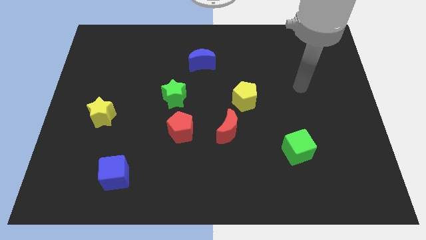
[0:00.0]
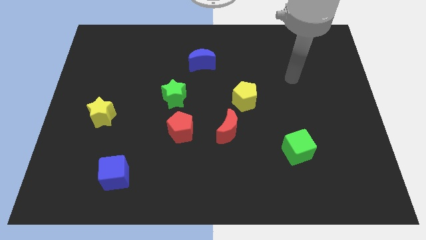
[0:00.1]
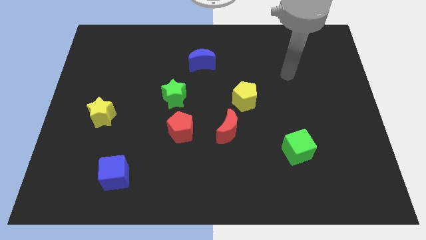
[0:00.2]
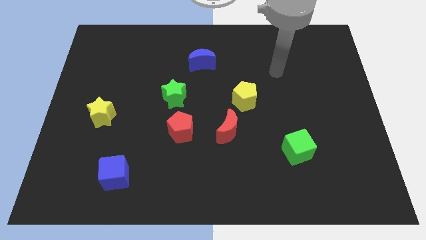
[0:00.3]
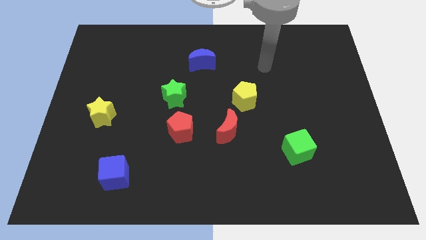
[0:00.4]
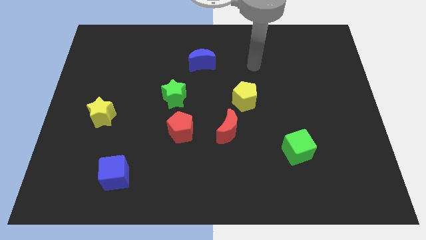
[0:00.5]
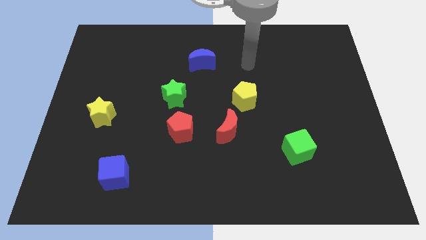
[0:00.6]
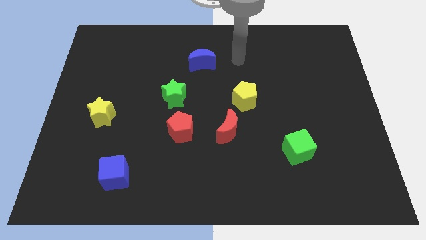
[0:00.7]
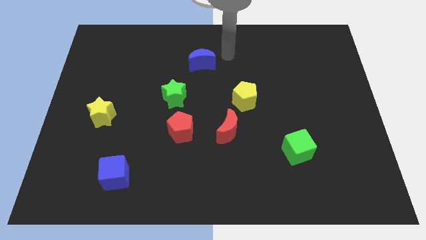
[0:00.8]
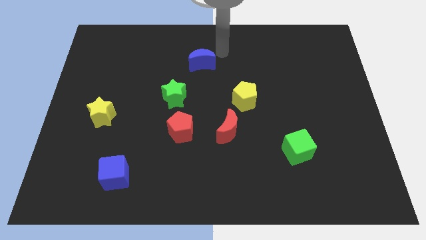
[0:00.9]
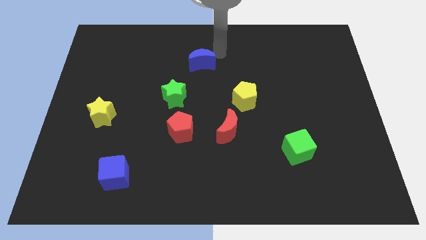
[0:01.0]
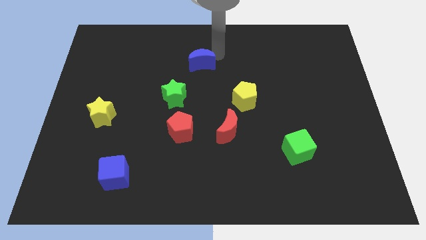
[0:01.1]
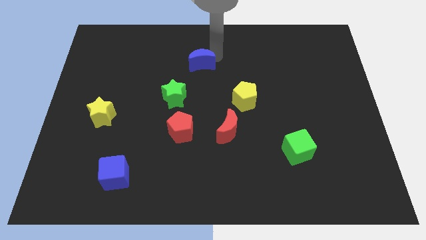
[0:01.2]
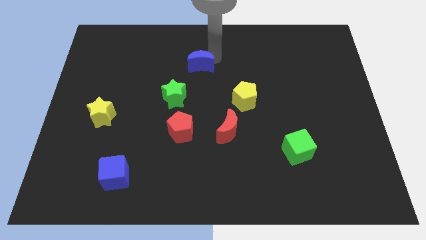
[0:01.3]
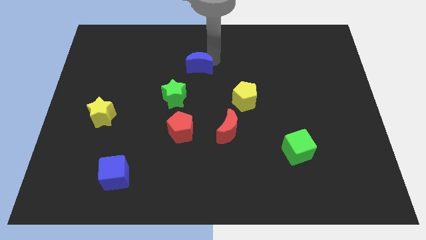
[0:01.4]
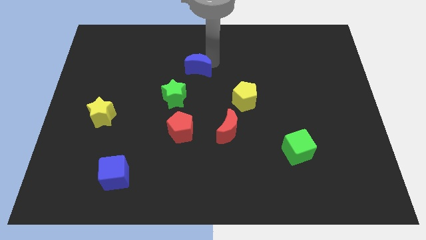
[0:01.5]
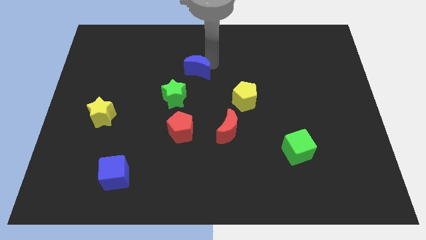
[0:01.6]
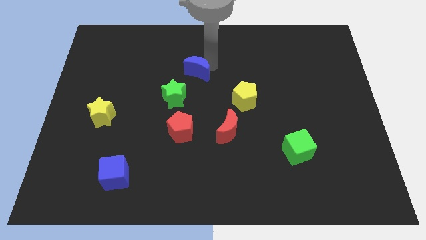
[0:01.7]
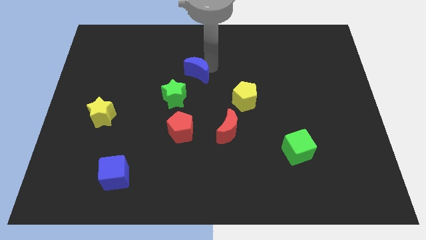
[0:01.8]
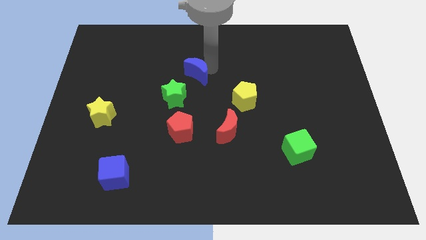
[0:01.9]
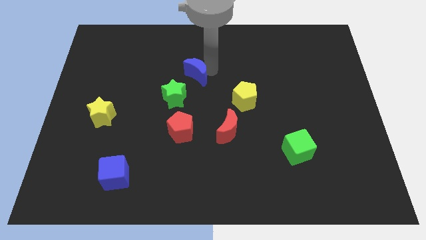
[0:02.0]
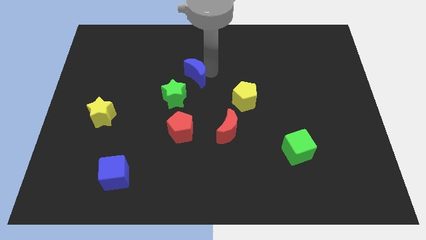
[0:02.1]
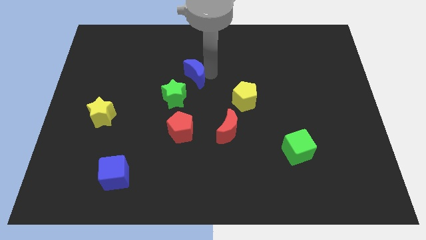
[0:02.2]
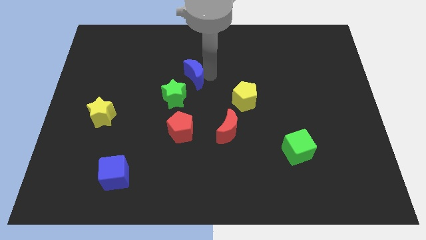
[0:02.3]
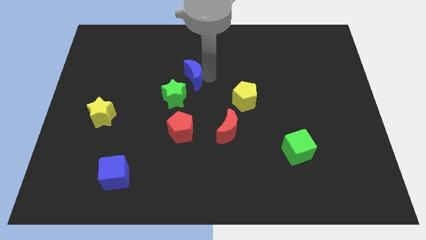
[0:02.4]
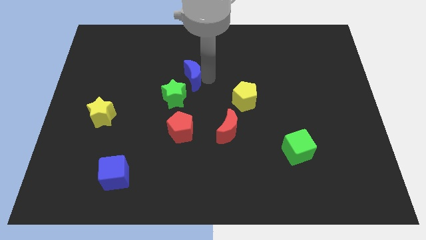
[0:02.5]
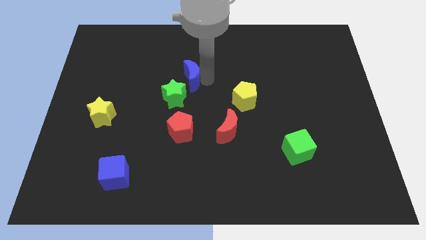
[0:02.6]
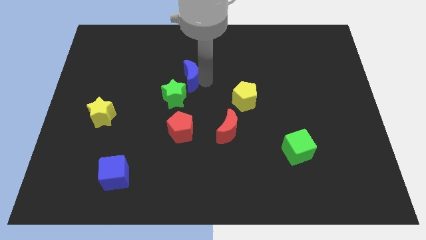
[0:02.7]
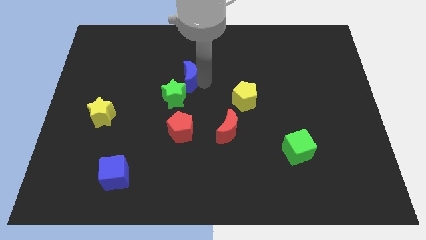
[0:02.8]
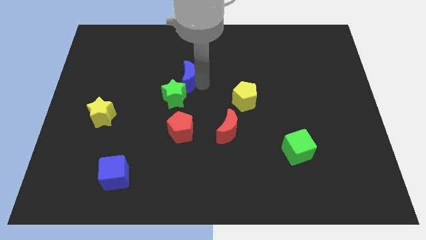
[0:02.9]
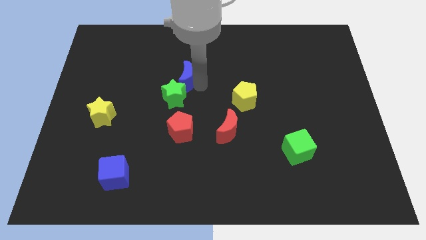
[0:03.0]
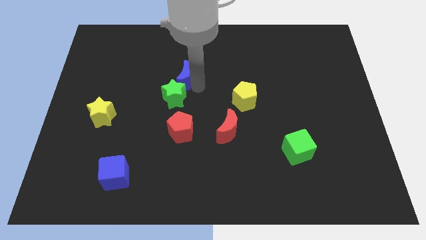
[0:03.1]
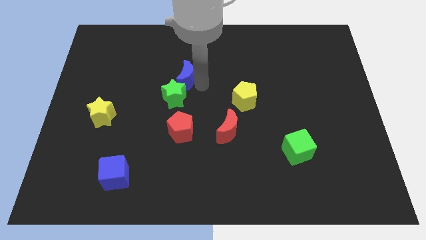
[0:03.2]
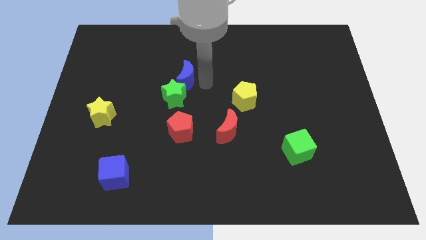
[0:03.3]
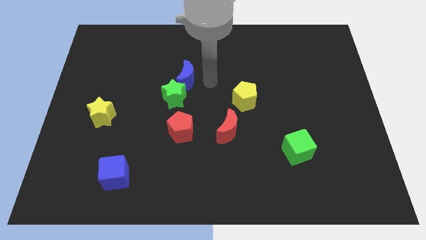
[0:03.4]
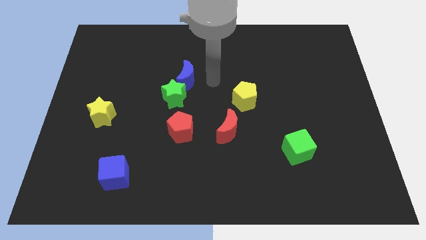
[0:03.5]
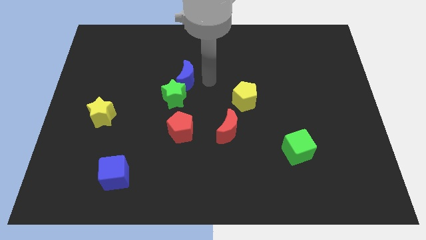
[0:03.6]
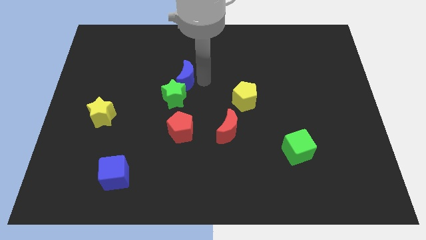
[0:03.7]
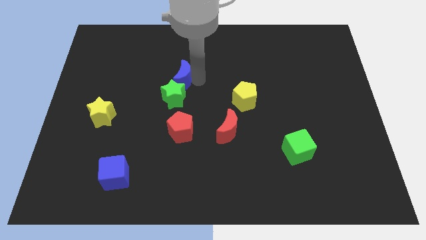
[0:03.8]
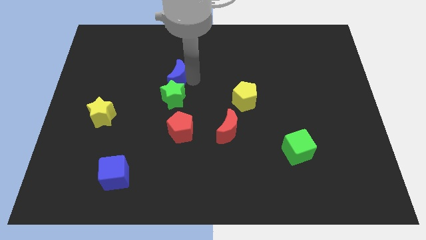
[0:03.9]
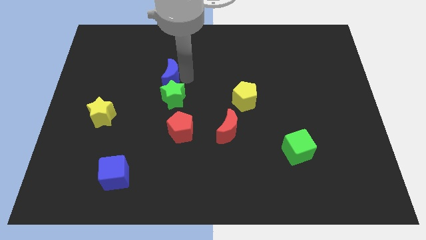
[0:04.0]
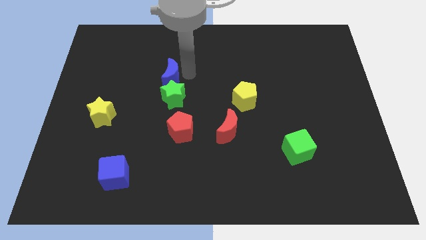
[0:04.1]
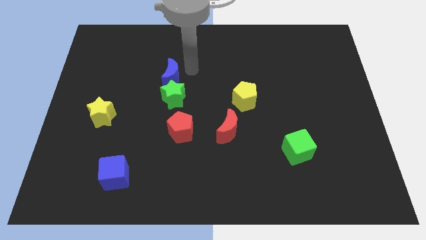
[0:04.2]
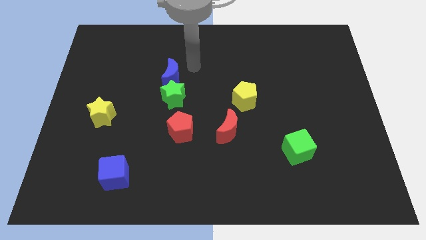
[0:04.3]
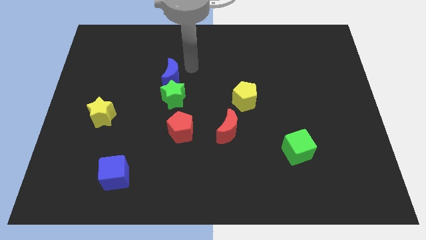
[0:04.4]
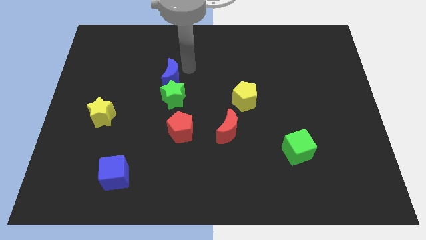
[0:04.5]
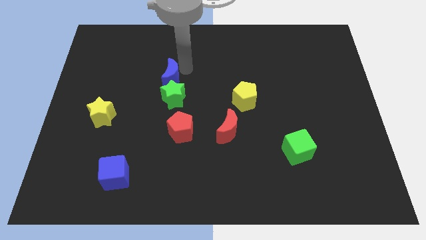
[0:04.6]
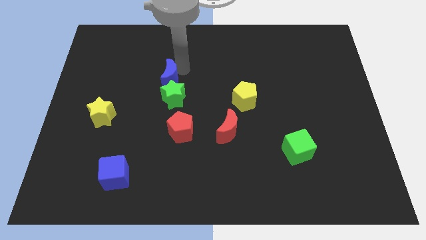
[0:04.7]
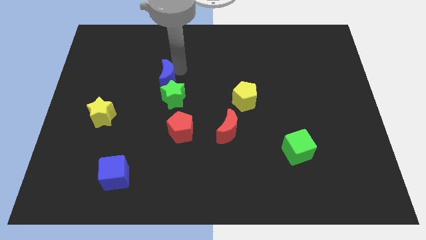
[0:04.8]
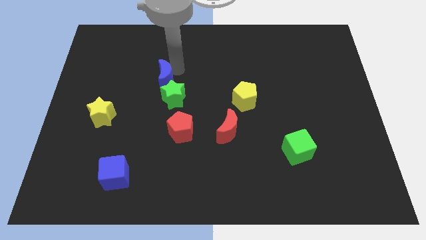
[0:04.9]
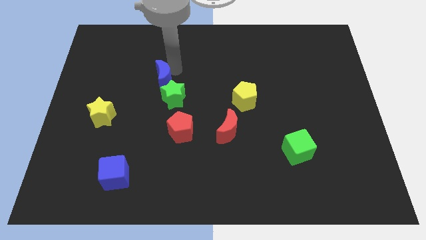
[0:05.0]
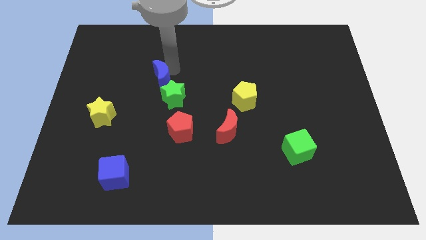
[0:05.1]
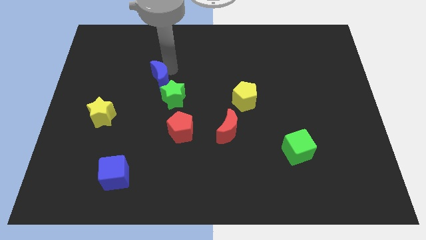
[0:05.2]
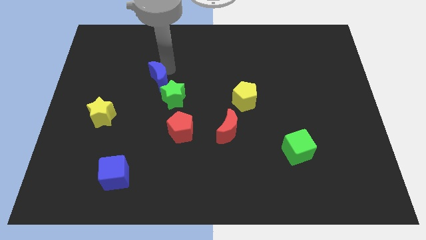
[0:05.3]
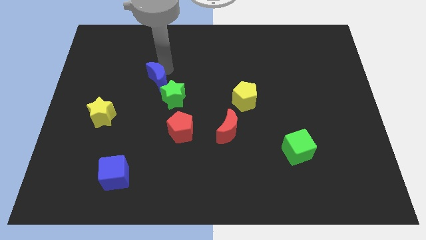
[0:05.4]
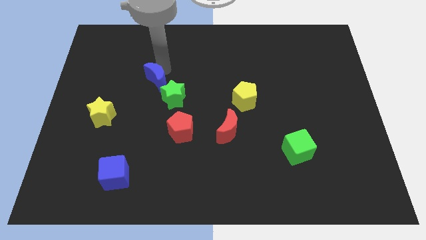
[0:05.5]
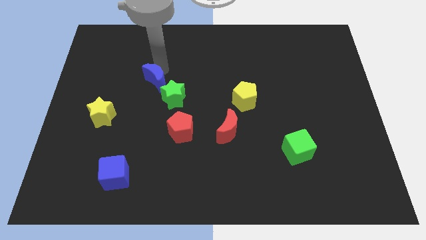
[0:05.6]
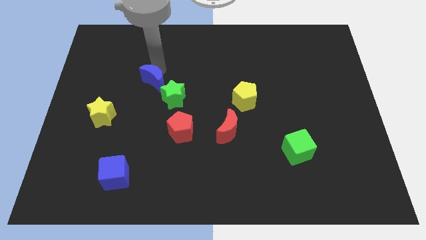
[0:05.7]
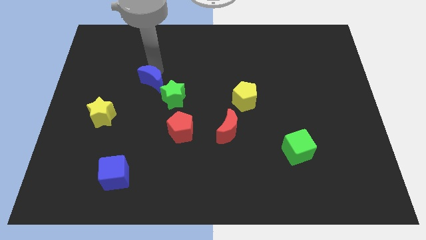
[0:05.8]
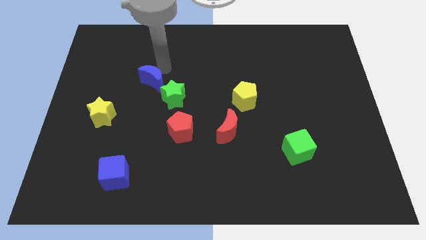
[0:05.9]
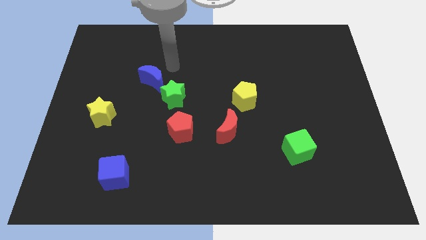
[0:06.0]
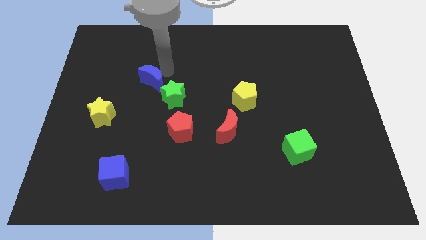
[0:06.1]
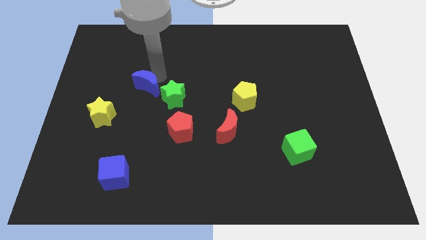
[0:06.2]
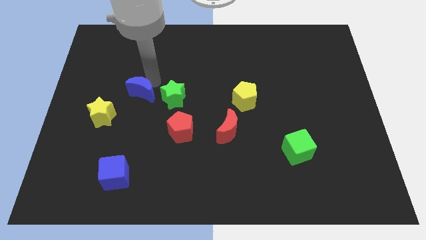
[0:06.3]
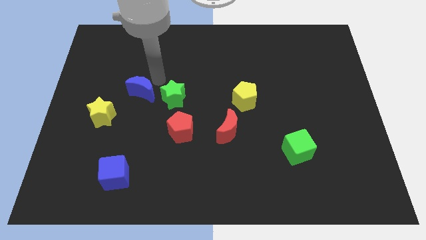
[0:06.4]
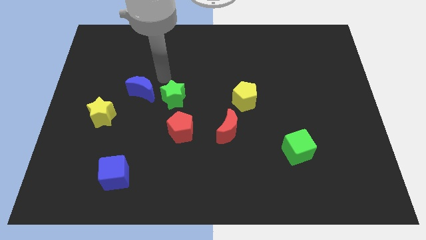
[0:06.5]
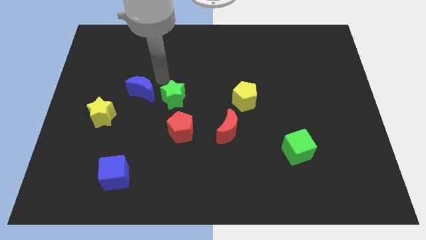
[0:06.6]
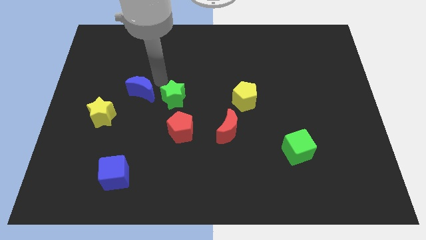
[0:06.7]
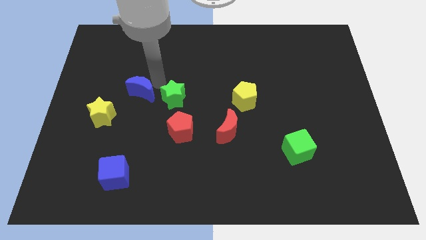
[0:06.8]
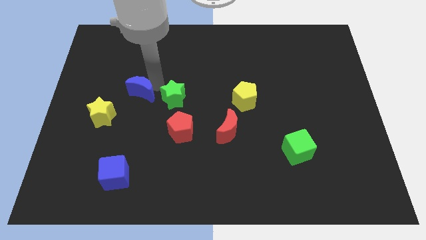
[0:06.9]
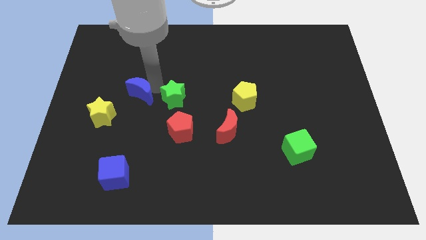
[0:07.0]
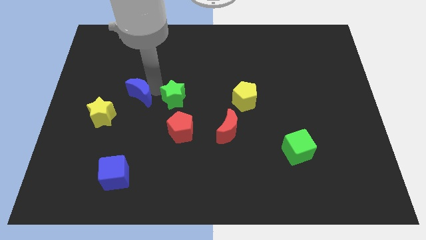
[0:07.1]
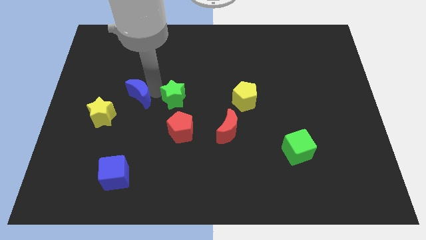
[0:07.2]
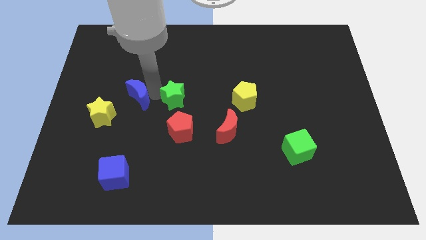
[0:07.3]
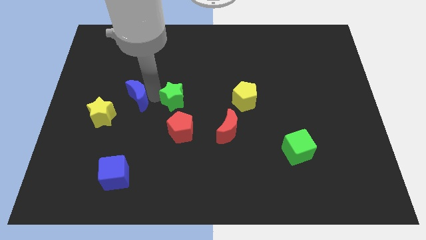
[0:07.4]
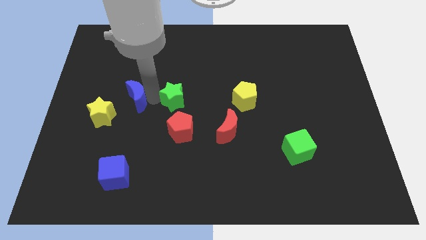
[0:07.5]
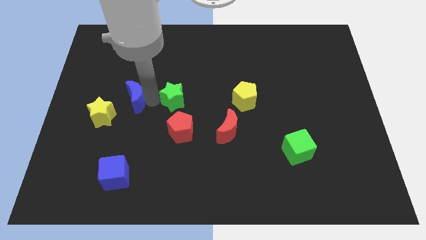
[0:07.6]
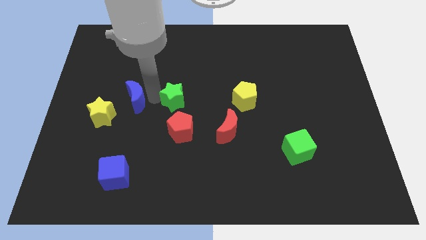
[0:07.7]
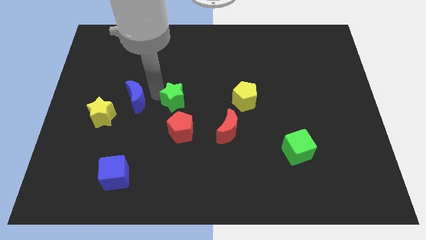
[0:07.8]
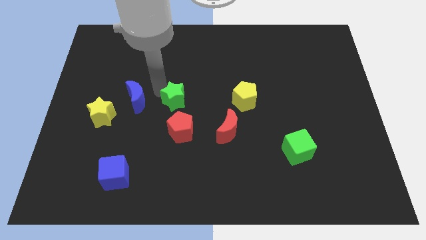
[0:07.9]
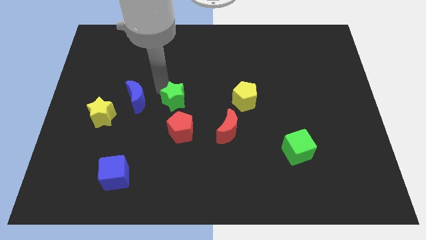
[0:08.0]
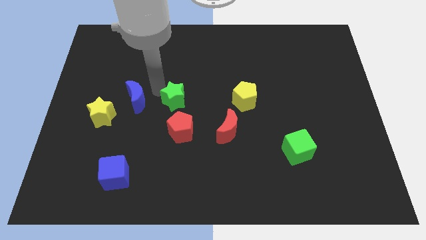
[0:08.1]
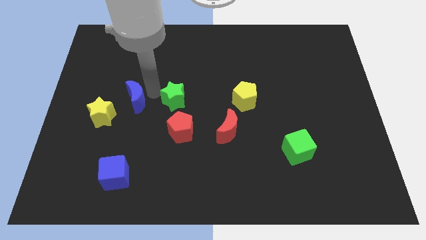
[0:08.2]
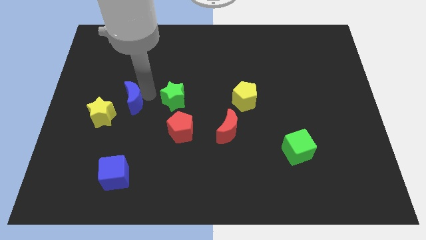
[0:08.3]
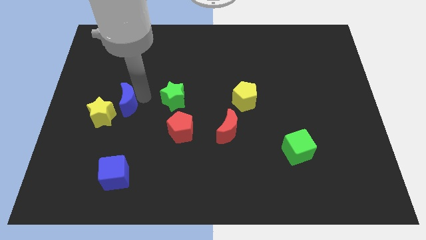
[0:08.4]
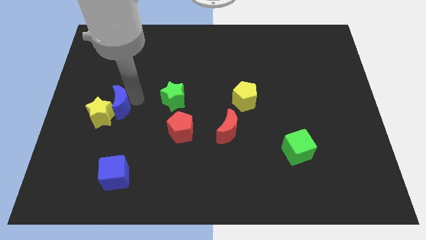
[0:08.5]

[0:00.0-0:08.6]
put the blue moon towards the yellow star
